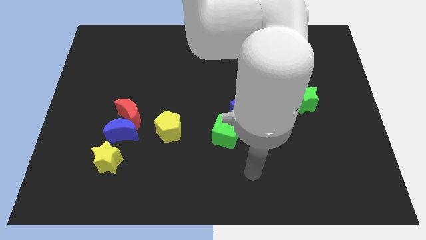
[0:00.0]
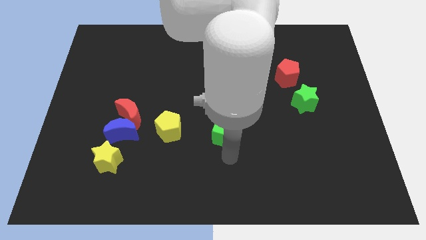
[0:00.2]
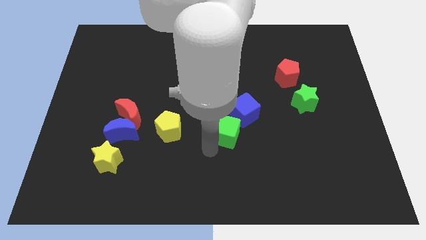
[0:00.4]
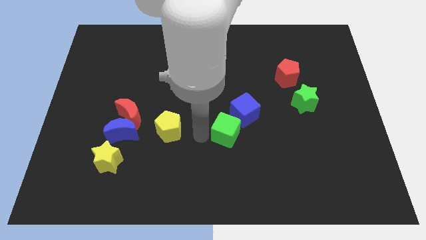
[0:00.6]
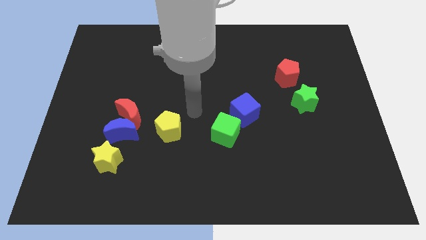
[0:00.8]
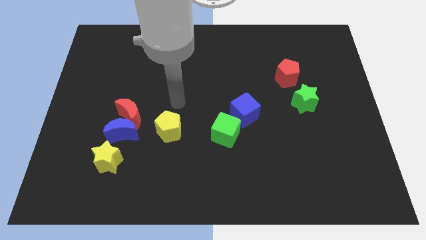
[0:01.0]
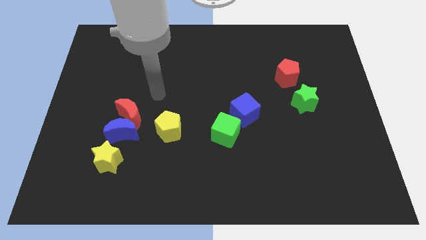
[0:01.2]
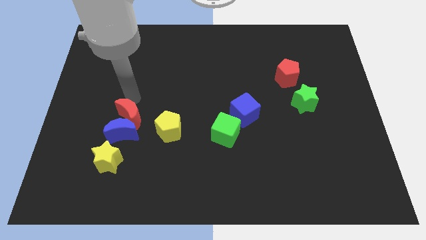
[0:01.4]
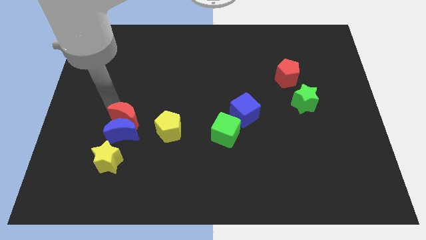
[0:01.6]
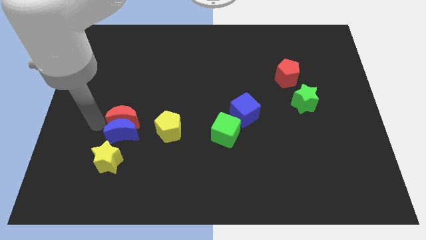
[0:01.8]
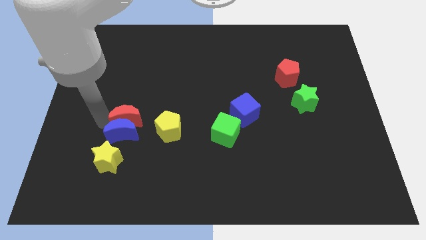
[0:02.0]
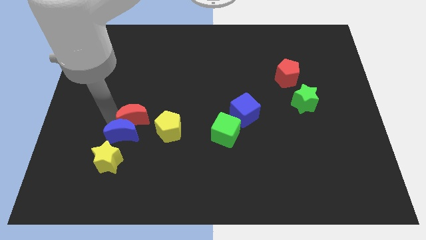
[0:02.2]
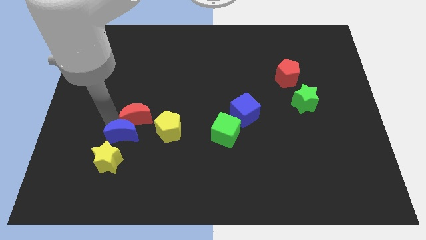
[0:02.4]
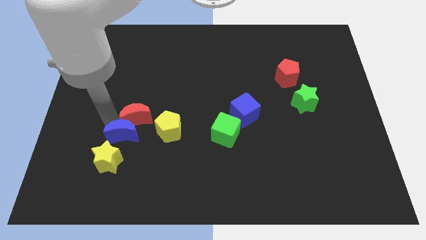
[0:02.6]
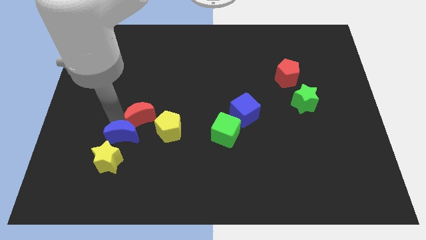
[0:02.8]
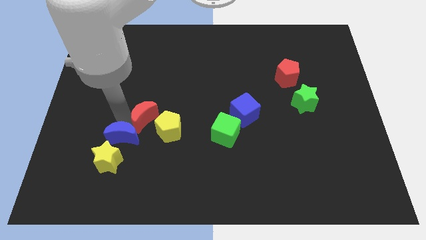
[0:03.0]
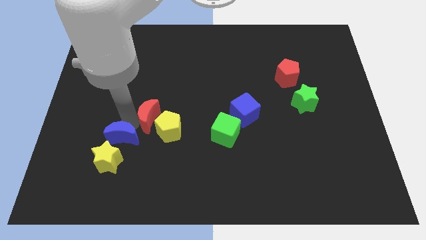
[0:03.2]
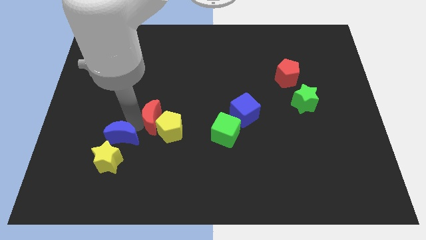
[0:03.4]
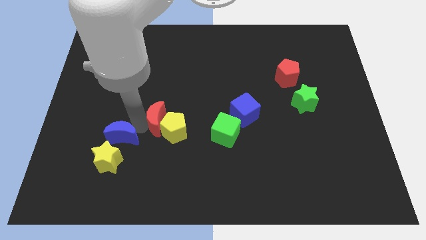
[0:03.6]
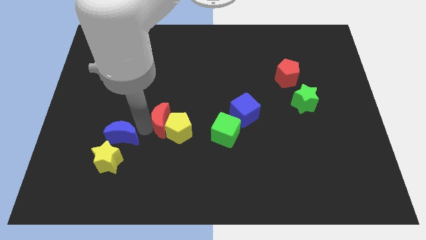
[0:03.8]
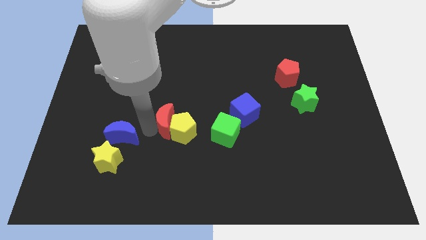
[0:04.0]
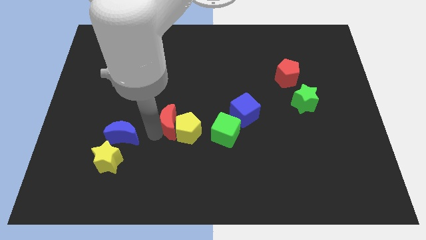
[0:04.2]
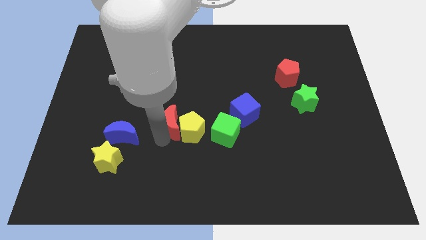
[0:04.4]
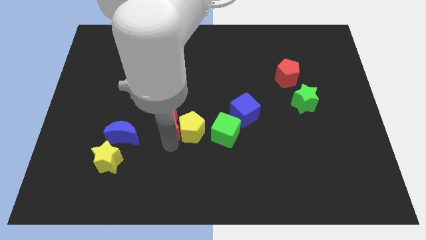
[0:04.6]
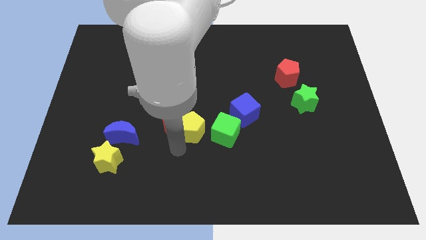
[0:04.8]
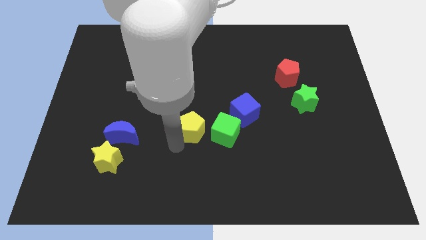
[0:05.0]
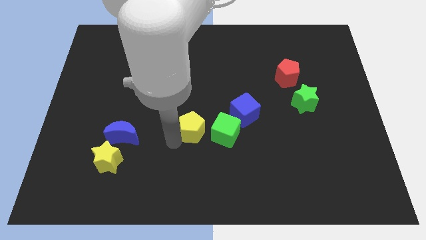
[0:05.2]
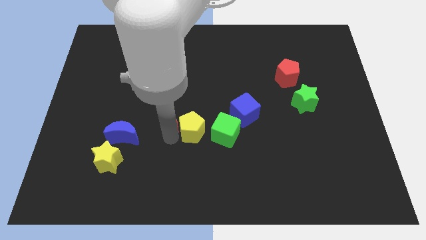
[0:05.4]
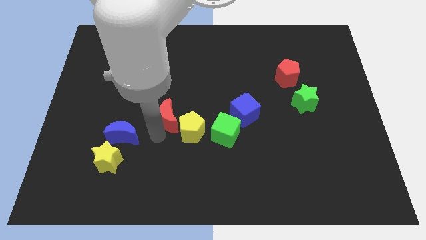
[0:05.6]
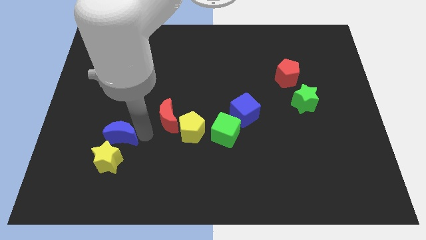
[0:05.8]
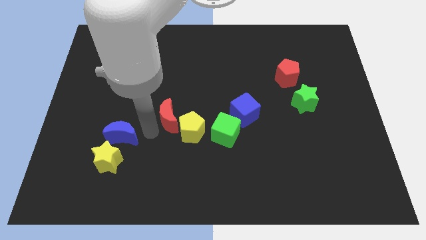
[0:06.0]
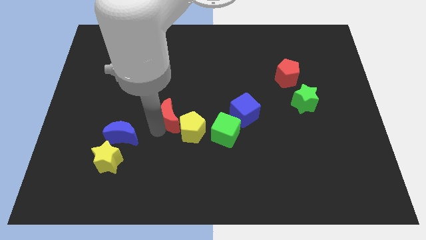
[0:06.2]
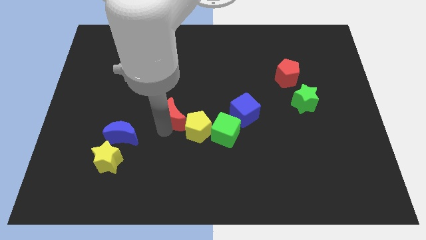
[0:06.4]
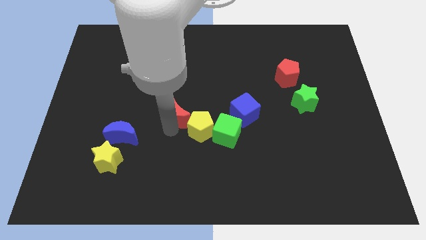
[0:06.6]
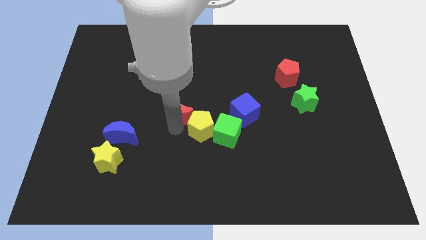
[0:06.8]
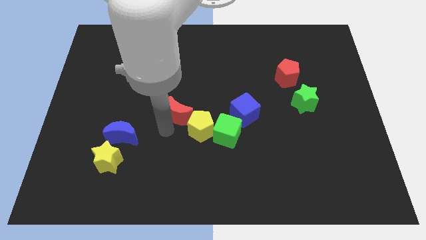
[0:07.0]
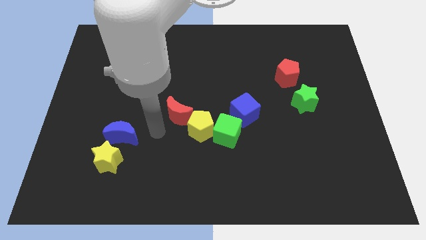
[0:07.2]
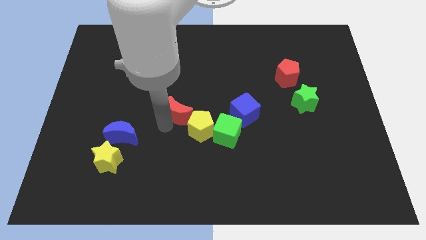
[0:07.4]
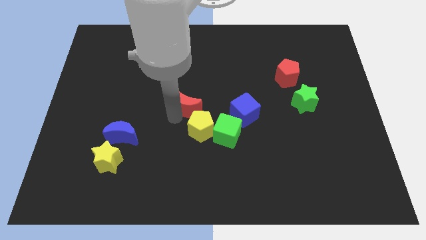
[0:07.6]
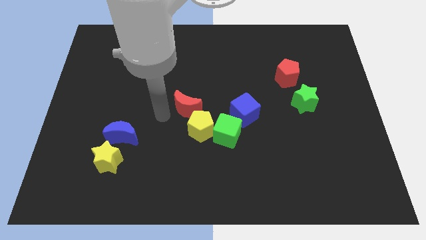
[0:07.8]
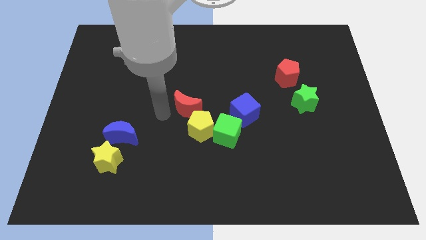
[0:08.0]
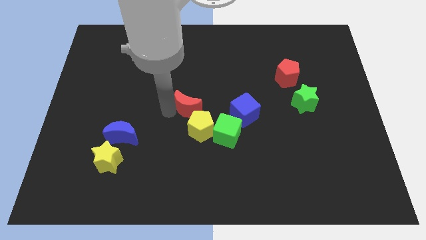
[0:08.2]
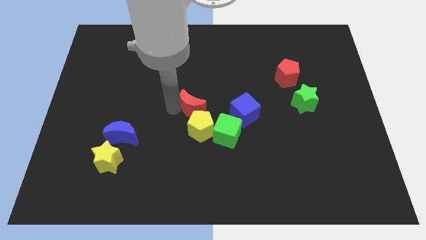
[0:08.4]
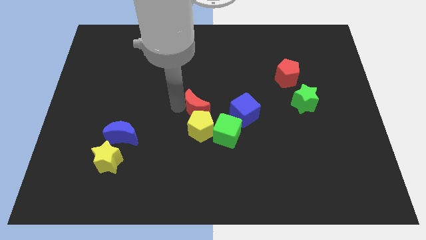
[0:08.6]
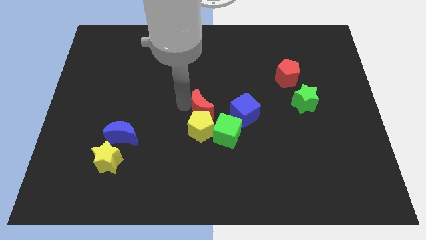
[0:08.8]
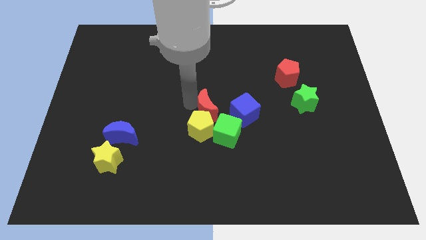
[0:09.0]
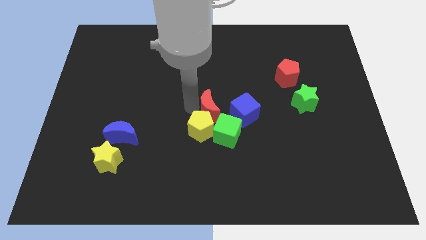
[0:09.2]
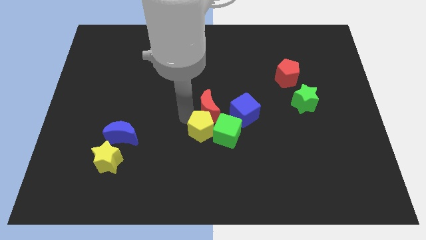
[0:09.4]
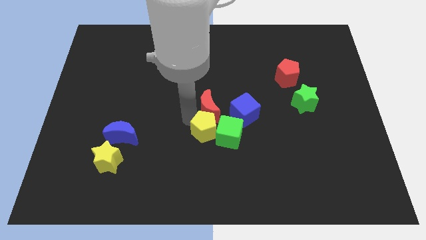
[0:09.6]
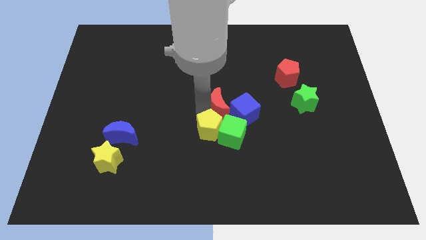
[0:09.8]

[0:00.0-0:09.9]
move the red moon to the right

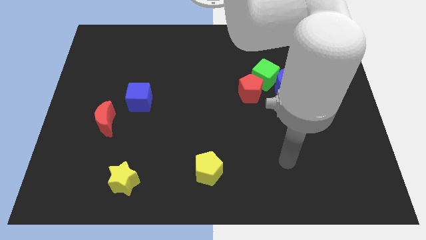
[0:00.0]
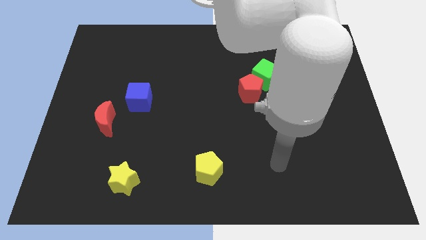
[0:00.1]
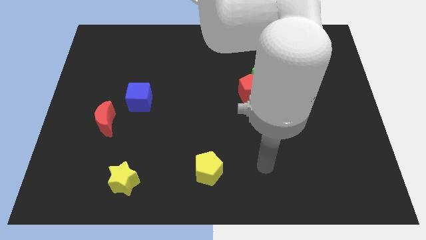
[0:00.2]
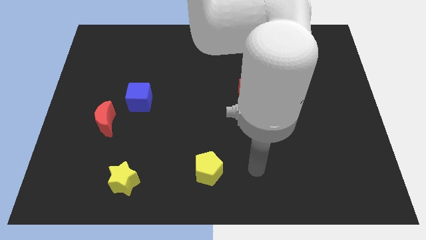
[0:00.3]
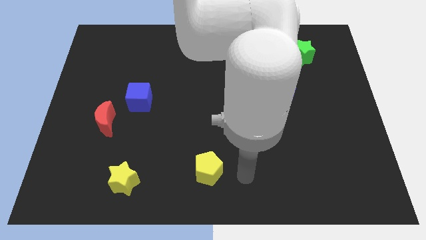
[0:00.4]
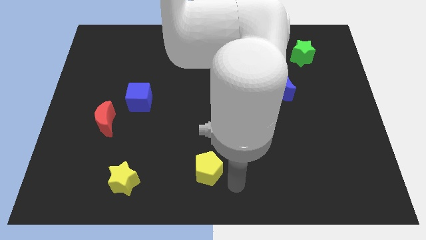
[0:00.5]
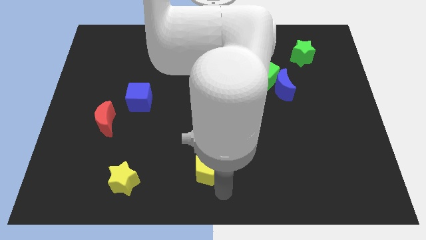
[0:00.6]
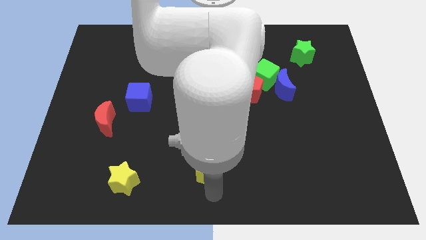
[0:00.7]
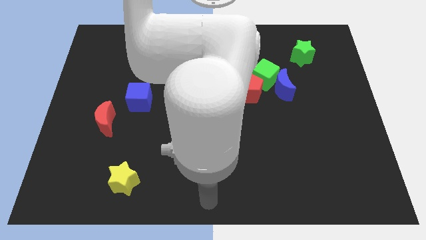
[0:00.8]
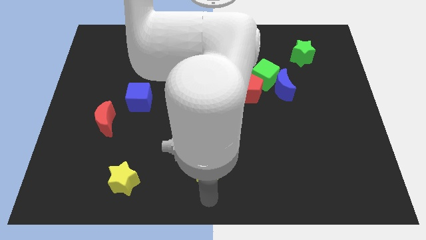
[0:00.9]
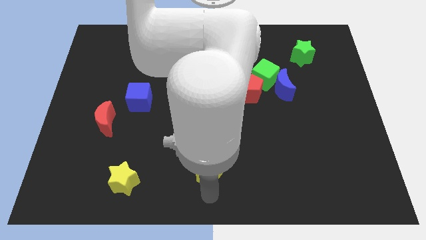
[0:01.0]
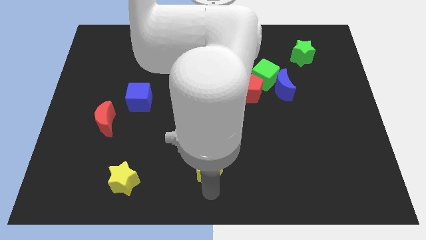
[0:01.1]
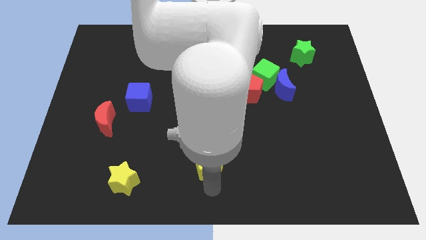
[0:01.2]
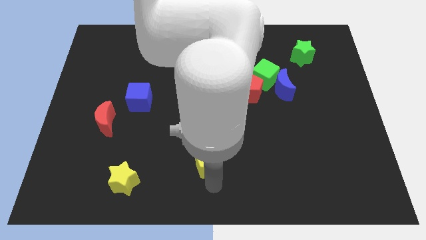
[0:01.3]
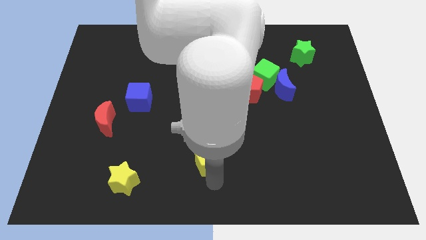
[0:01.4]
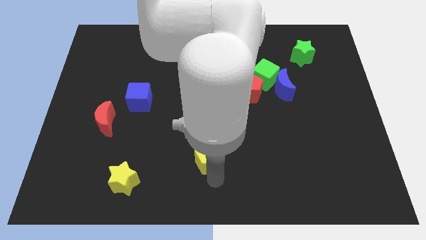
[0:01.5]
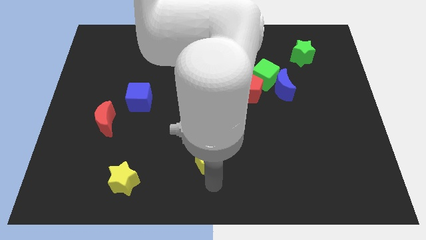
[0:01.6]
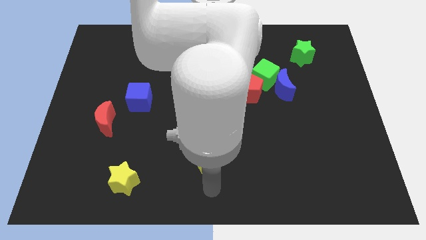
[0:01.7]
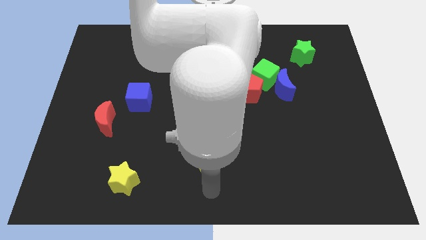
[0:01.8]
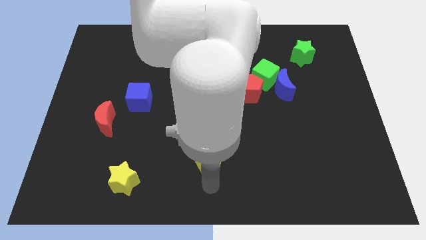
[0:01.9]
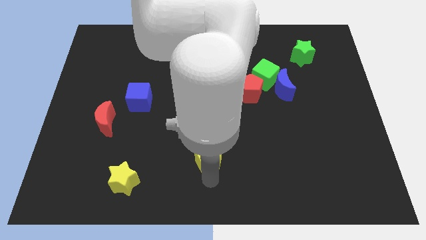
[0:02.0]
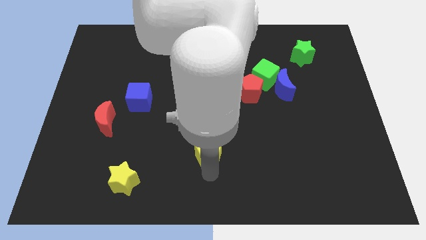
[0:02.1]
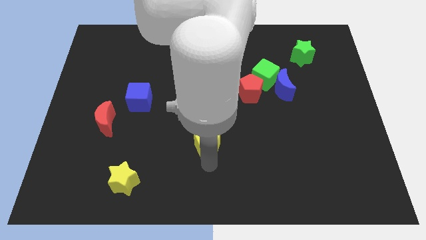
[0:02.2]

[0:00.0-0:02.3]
push the yellow pentagon upwards a little

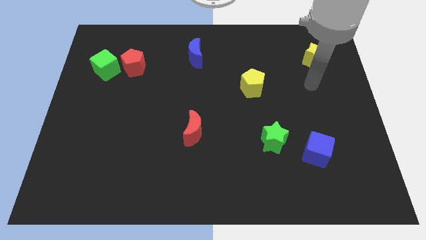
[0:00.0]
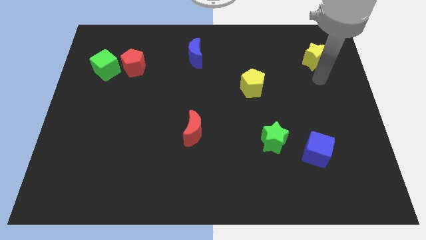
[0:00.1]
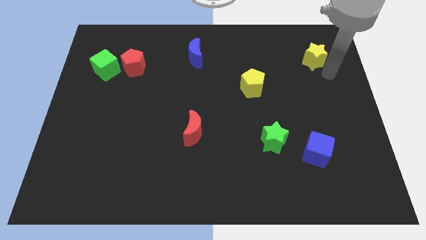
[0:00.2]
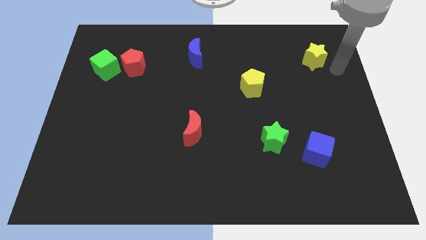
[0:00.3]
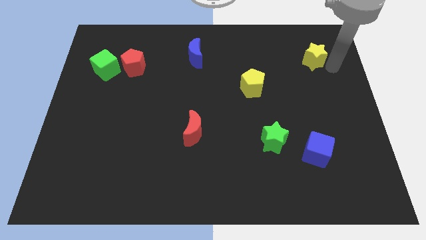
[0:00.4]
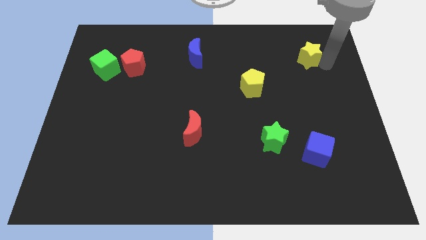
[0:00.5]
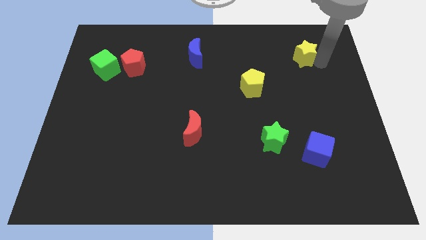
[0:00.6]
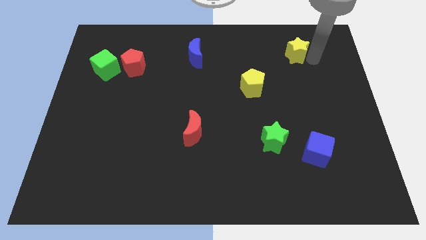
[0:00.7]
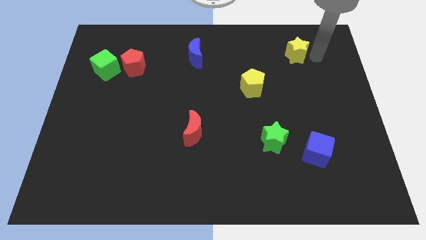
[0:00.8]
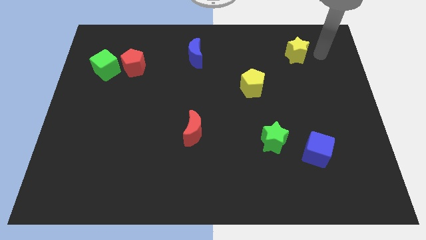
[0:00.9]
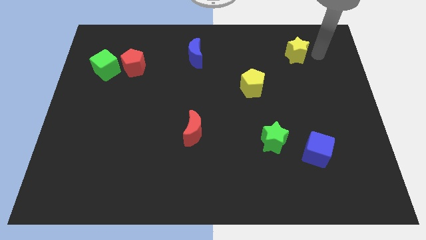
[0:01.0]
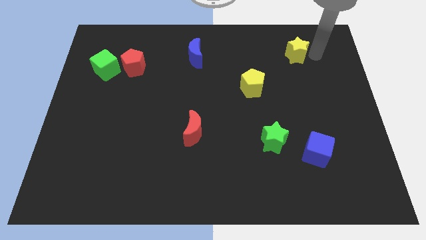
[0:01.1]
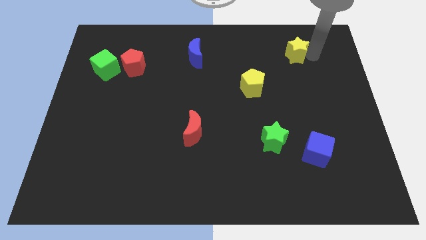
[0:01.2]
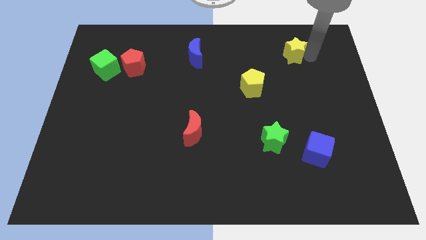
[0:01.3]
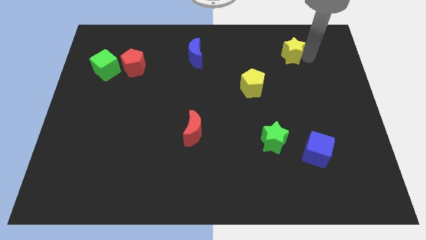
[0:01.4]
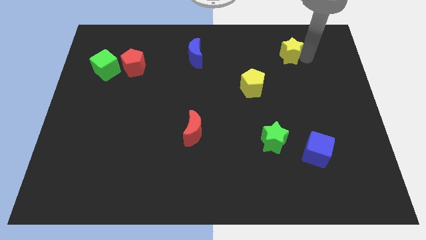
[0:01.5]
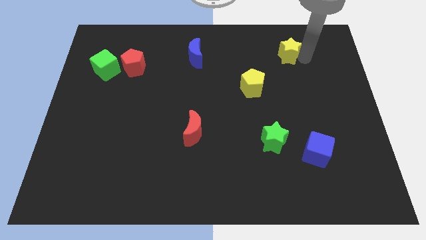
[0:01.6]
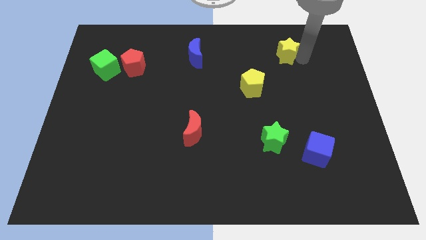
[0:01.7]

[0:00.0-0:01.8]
push the yellow star left somewhat
